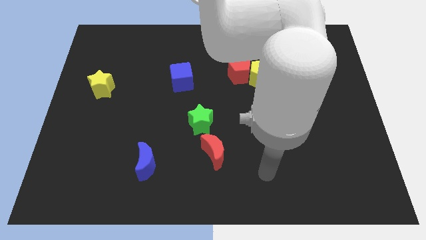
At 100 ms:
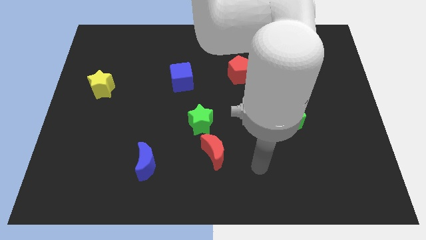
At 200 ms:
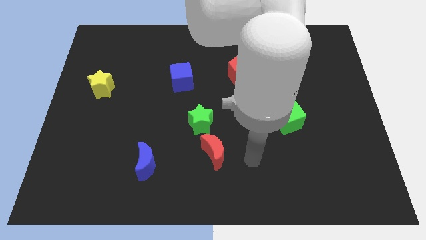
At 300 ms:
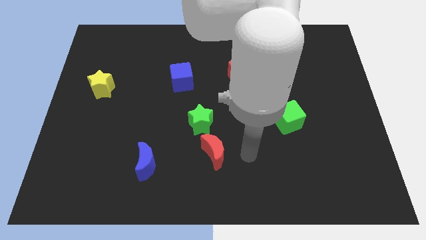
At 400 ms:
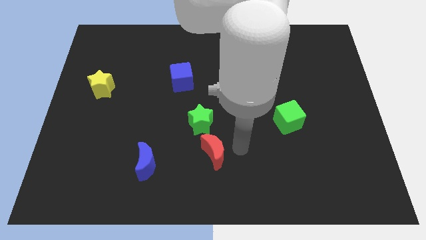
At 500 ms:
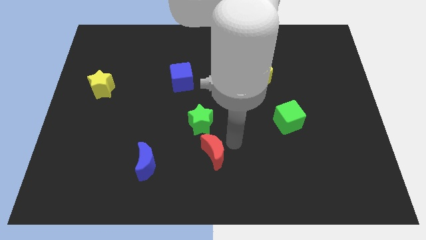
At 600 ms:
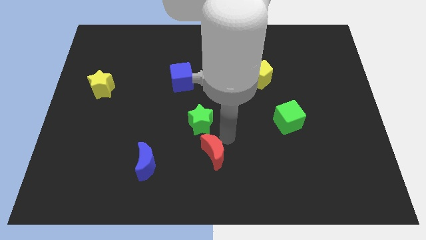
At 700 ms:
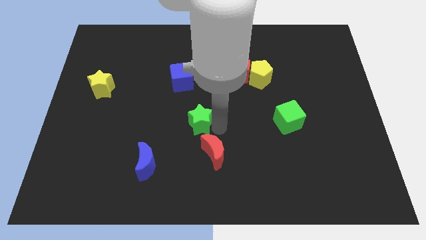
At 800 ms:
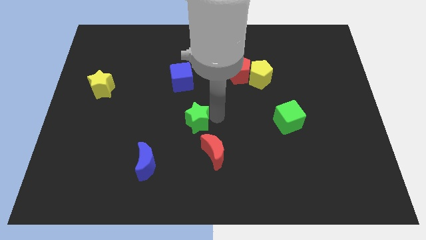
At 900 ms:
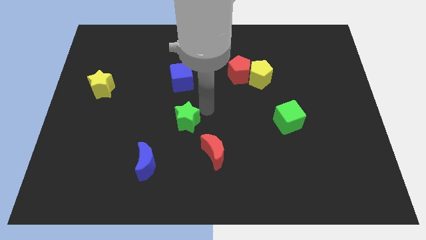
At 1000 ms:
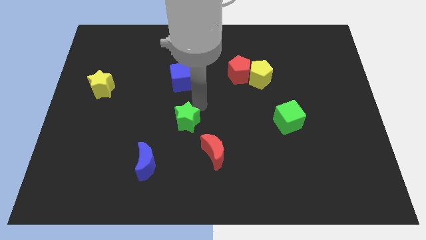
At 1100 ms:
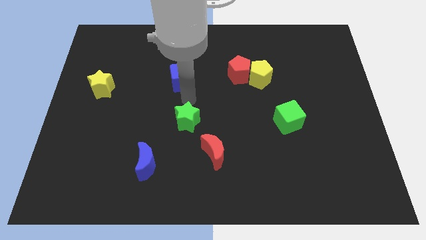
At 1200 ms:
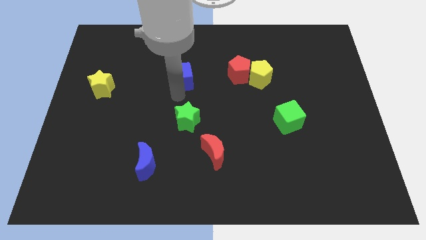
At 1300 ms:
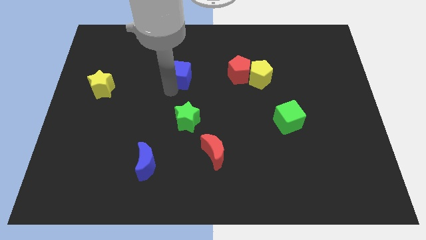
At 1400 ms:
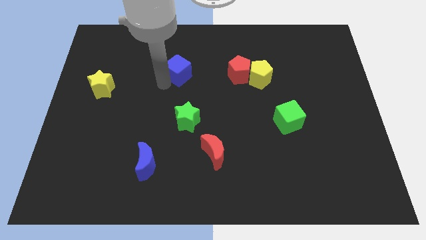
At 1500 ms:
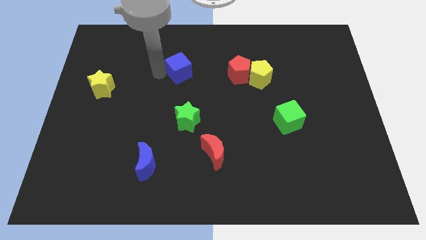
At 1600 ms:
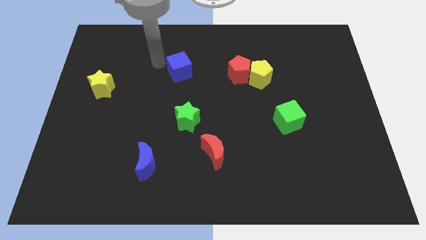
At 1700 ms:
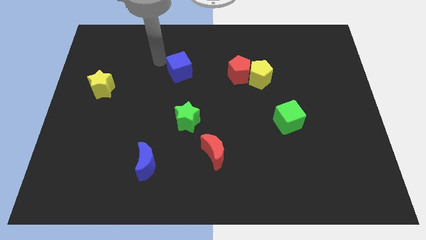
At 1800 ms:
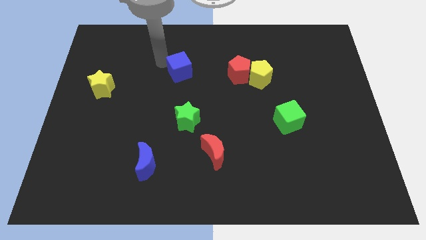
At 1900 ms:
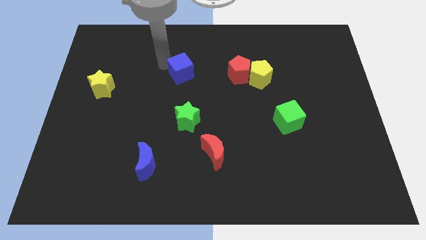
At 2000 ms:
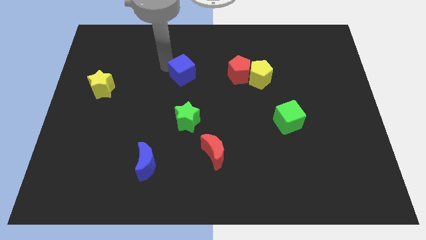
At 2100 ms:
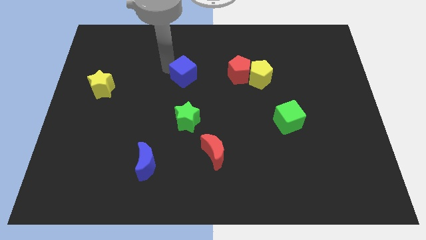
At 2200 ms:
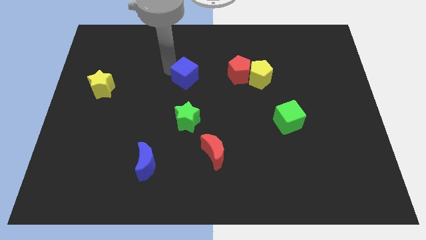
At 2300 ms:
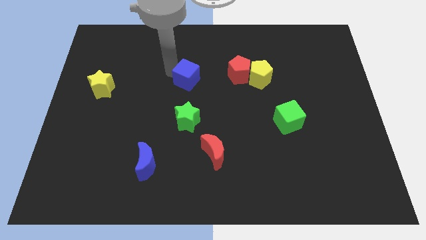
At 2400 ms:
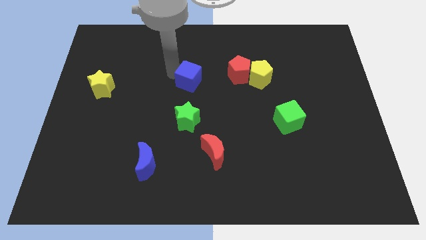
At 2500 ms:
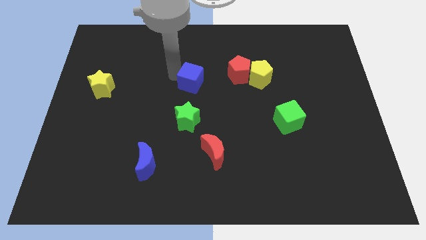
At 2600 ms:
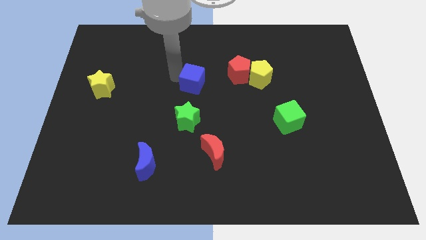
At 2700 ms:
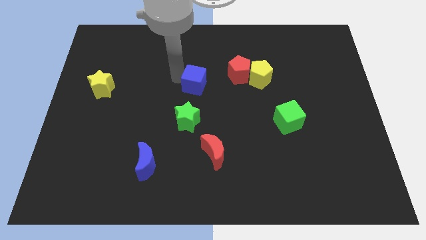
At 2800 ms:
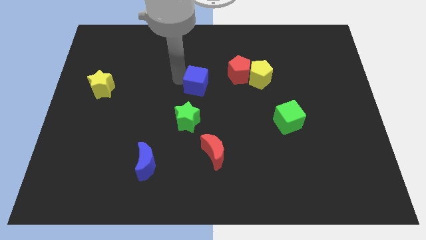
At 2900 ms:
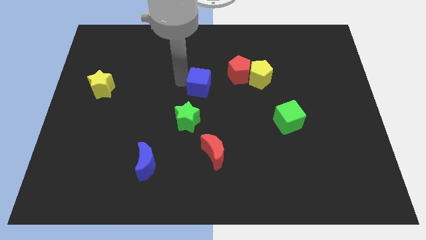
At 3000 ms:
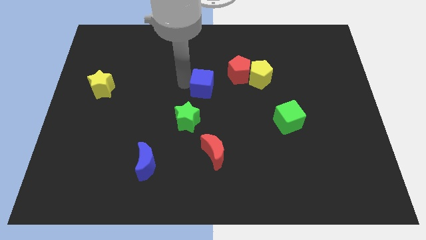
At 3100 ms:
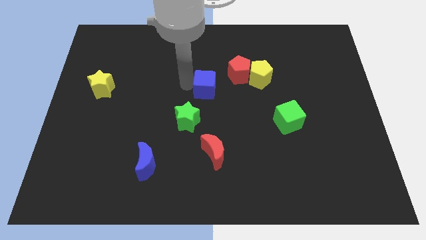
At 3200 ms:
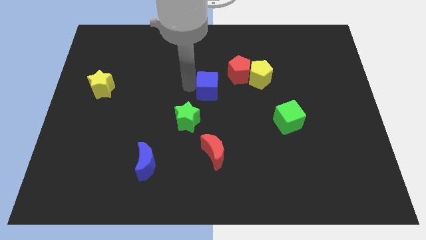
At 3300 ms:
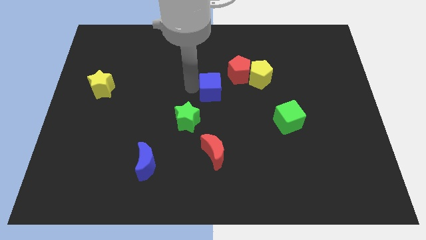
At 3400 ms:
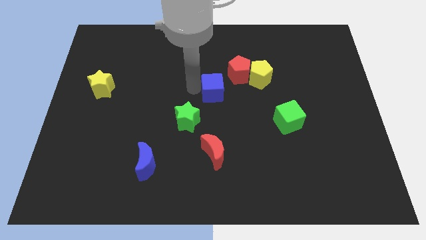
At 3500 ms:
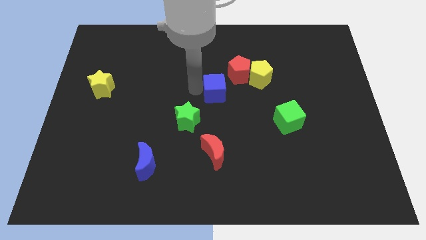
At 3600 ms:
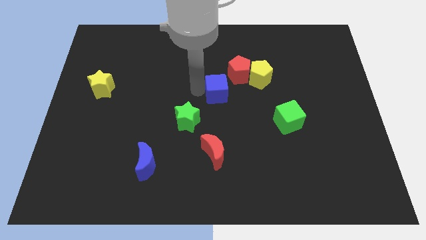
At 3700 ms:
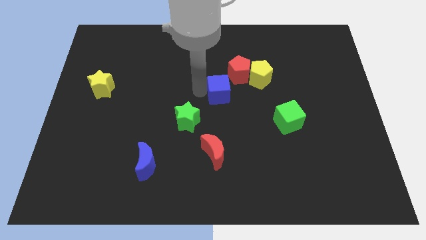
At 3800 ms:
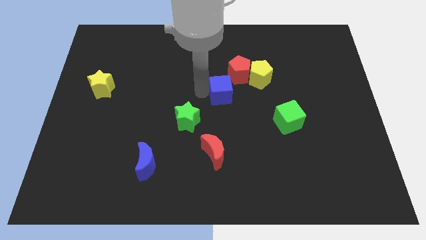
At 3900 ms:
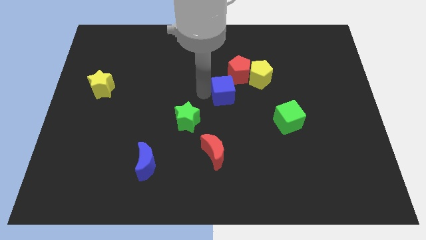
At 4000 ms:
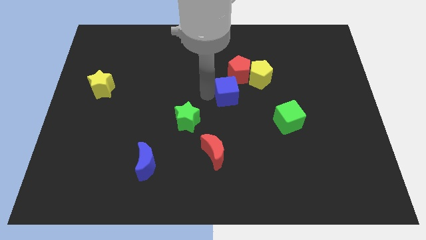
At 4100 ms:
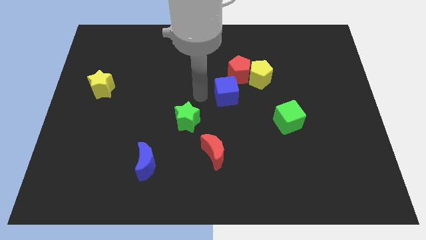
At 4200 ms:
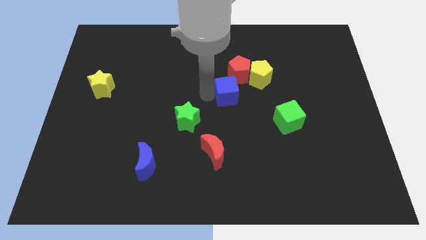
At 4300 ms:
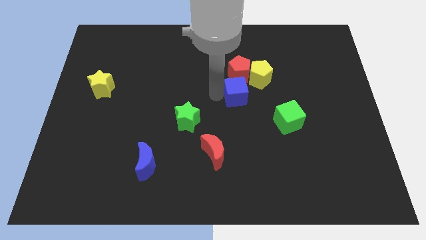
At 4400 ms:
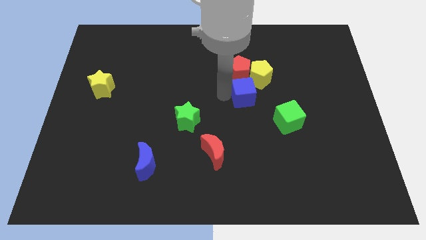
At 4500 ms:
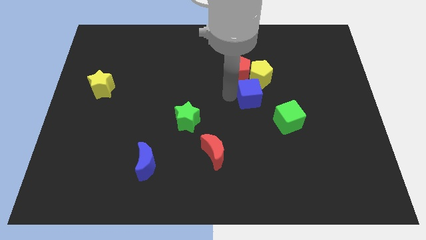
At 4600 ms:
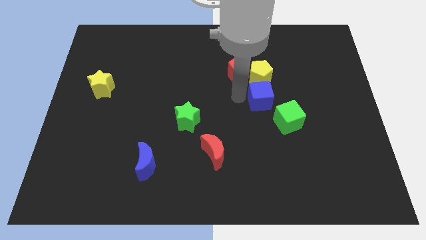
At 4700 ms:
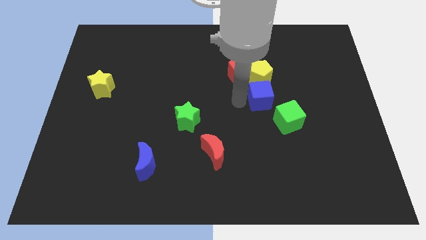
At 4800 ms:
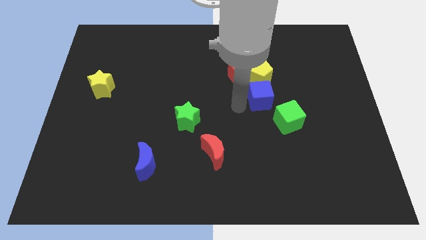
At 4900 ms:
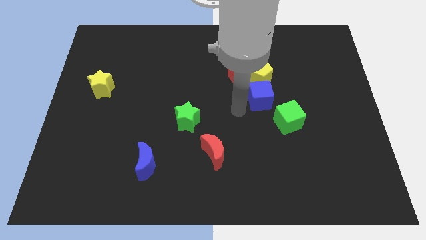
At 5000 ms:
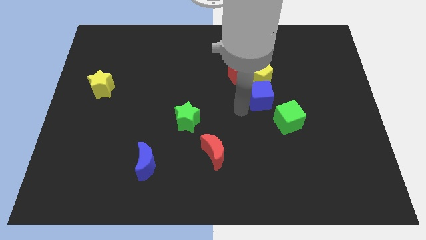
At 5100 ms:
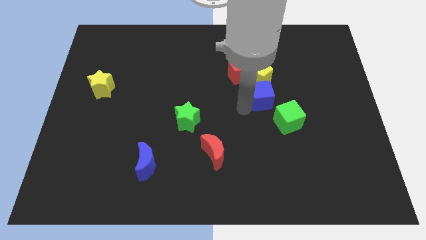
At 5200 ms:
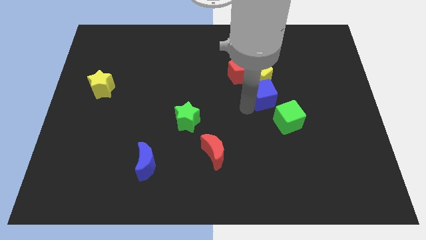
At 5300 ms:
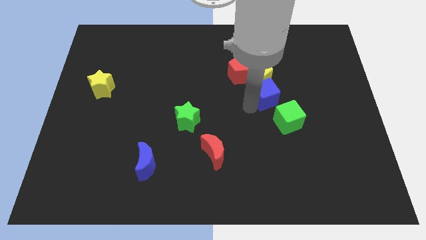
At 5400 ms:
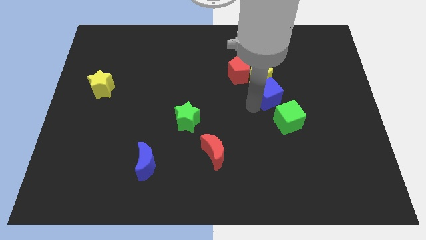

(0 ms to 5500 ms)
push the blue cube to the right

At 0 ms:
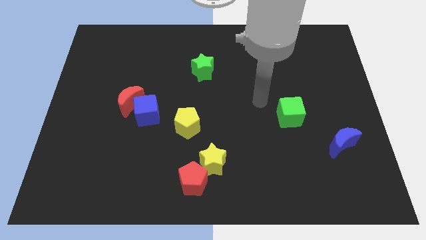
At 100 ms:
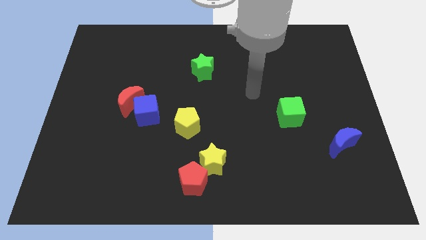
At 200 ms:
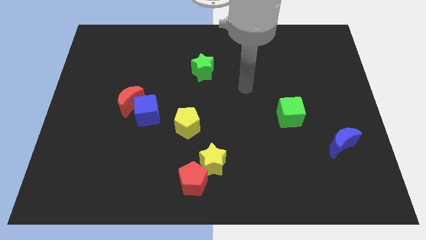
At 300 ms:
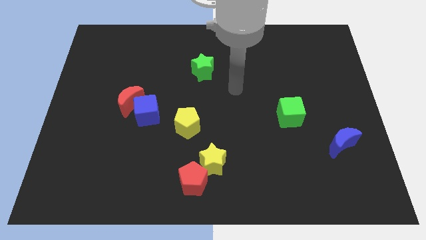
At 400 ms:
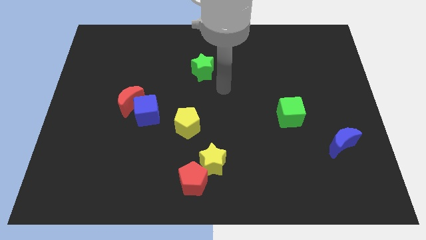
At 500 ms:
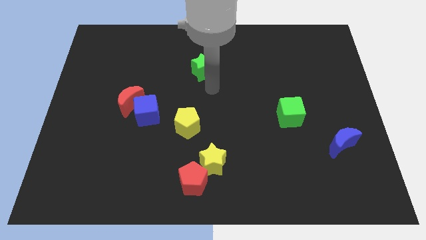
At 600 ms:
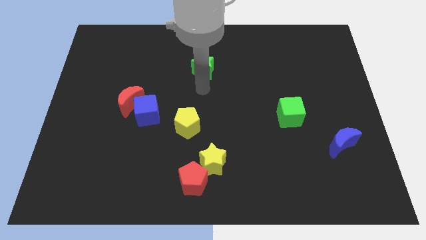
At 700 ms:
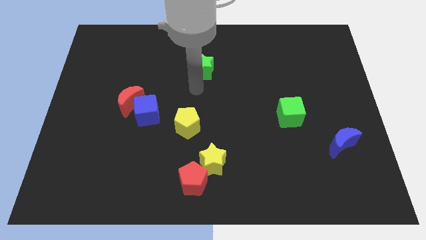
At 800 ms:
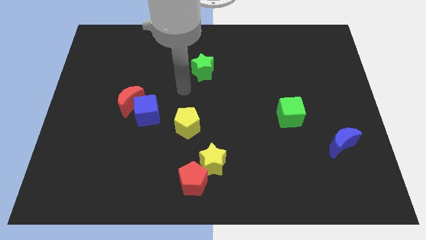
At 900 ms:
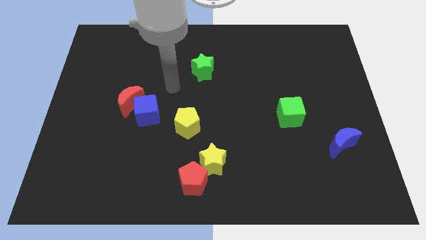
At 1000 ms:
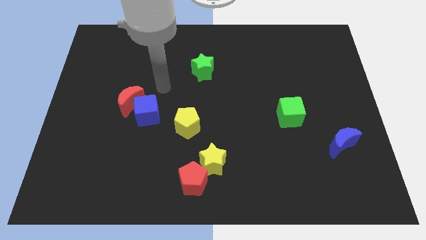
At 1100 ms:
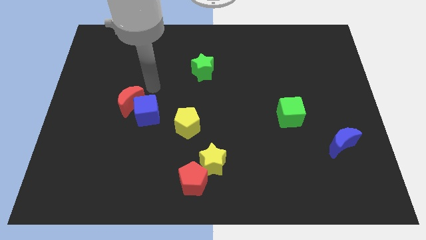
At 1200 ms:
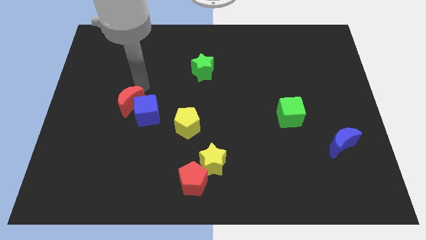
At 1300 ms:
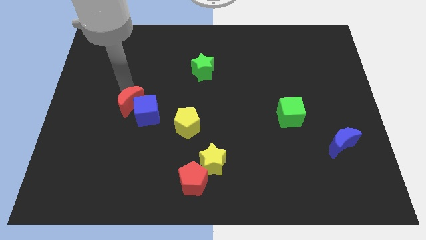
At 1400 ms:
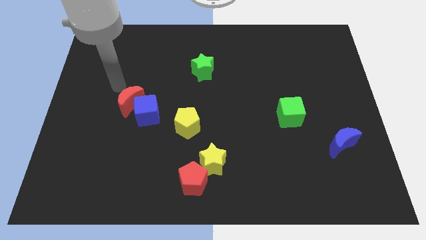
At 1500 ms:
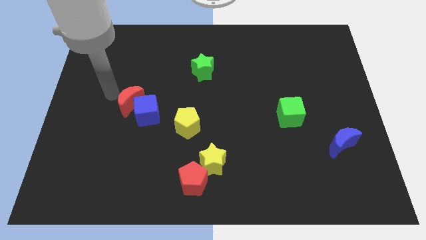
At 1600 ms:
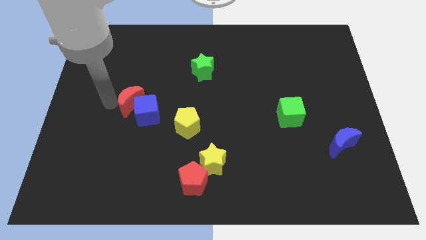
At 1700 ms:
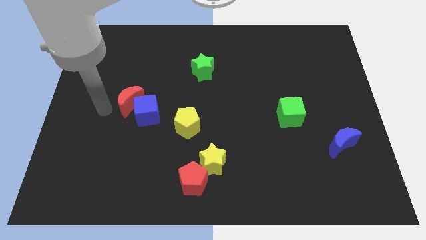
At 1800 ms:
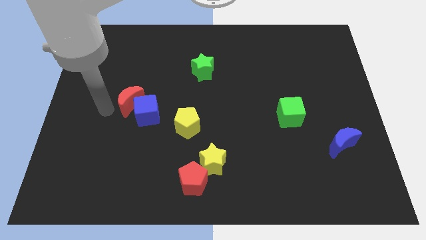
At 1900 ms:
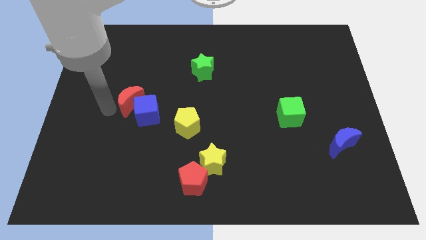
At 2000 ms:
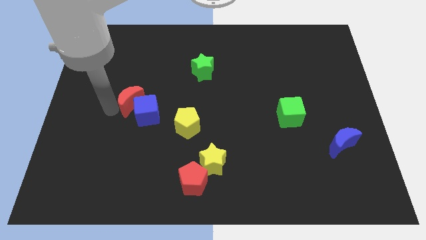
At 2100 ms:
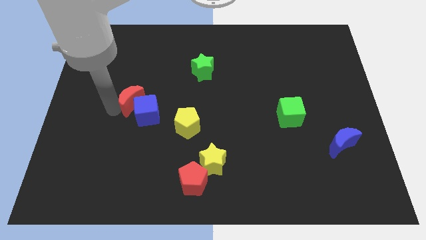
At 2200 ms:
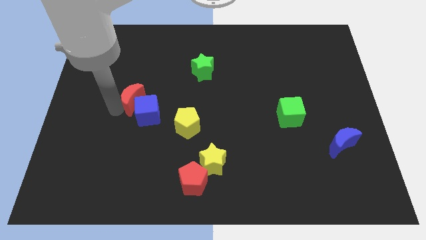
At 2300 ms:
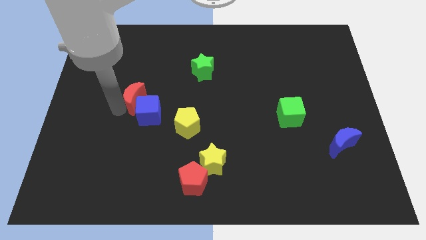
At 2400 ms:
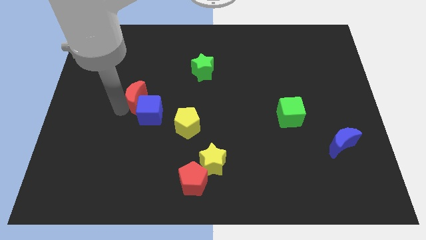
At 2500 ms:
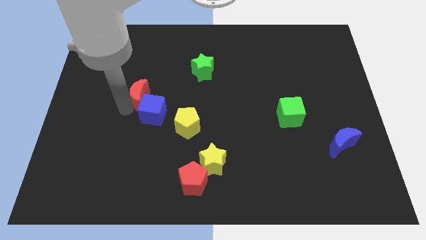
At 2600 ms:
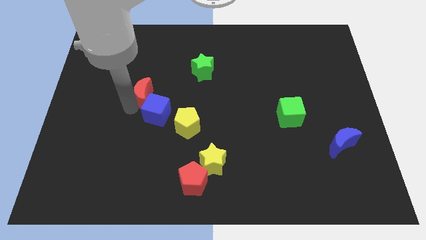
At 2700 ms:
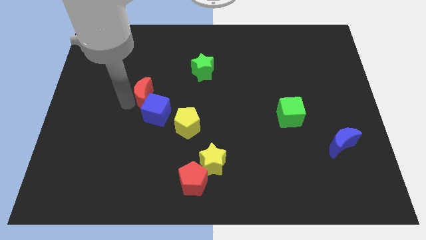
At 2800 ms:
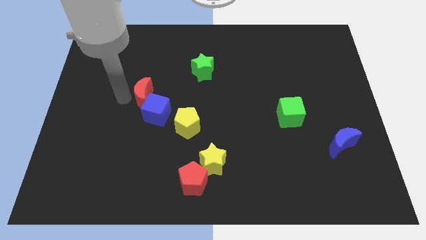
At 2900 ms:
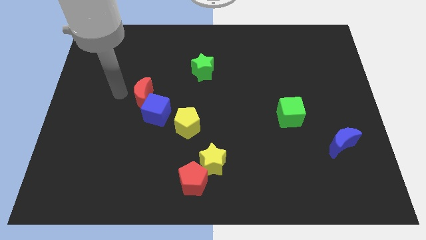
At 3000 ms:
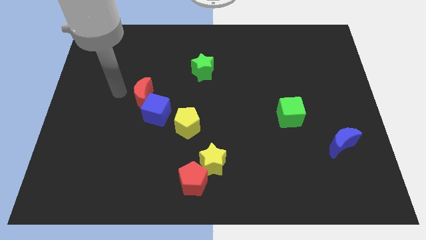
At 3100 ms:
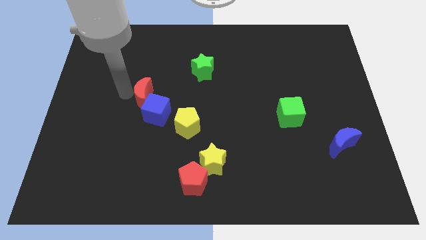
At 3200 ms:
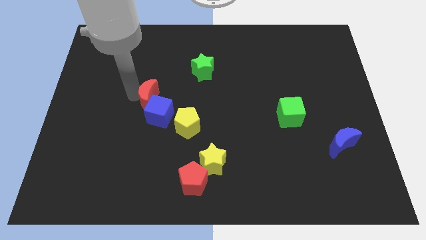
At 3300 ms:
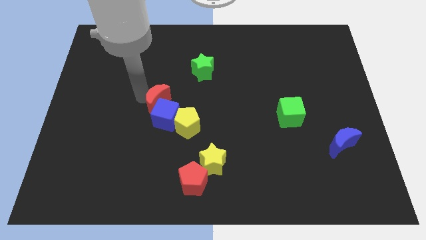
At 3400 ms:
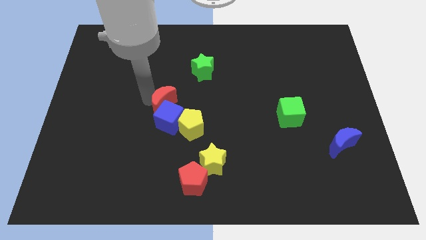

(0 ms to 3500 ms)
push the red moon to the right a little
